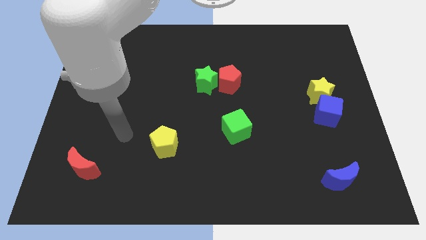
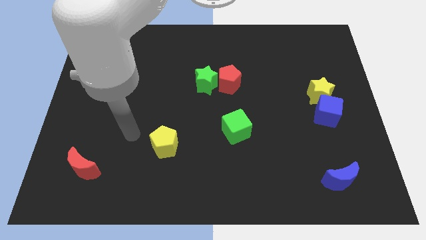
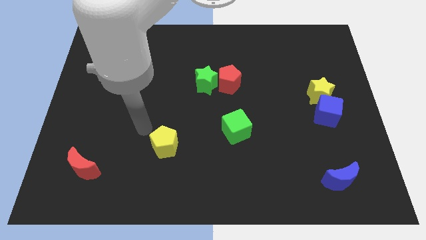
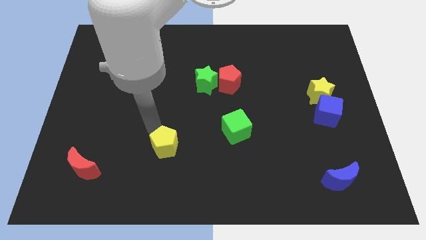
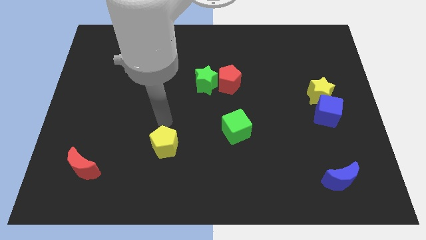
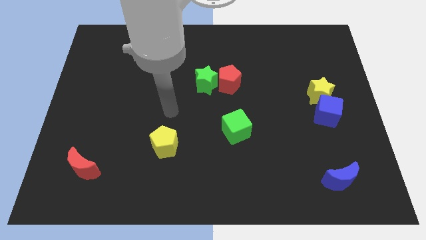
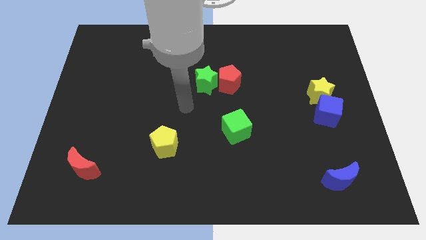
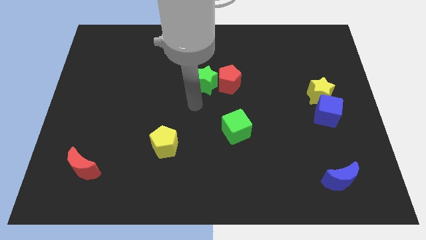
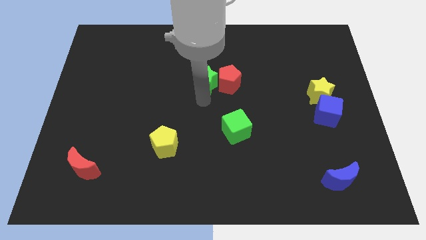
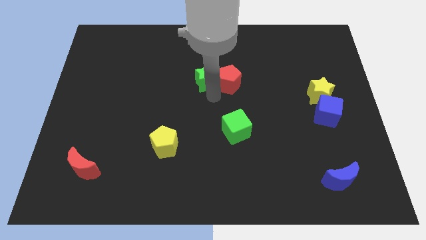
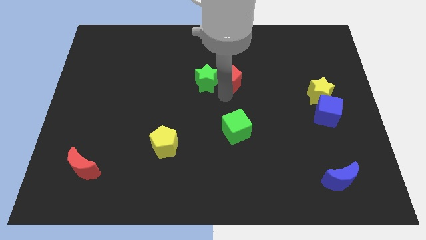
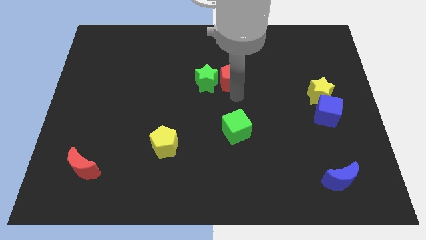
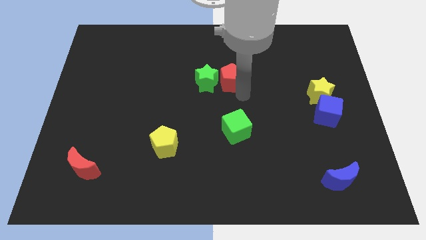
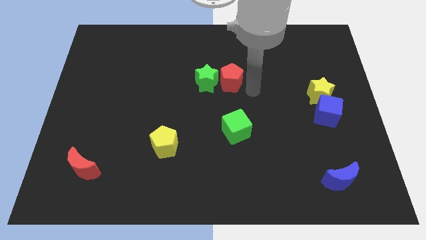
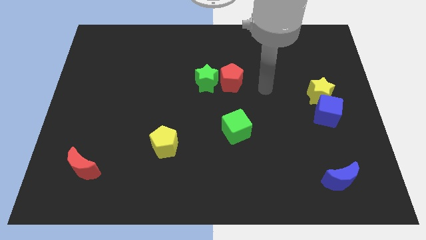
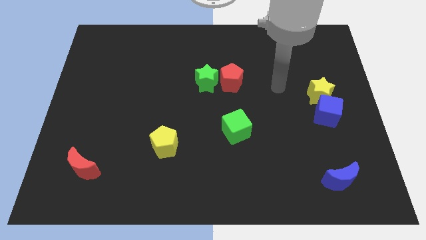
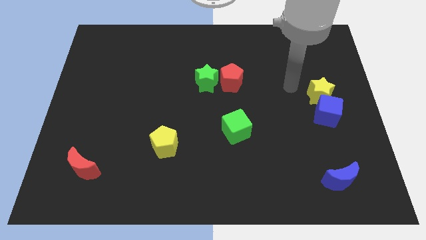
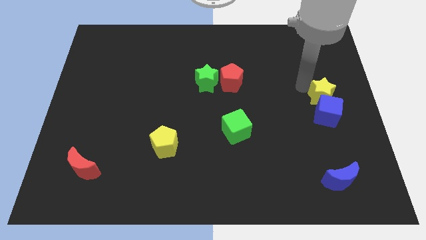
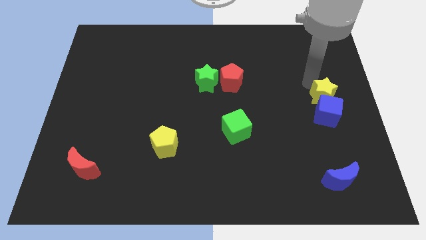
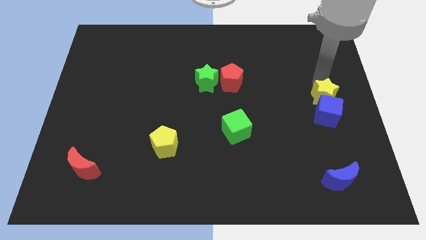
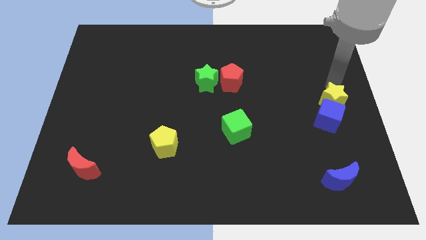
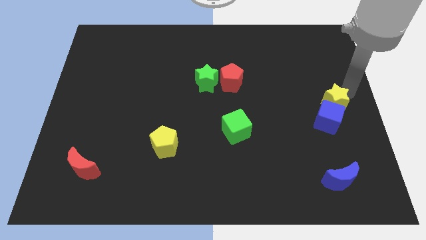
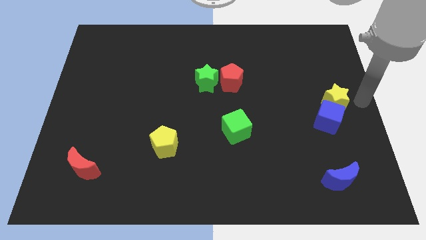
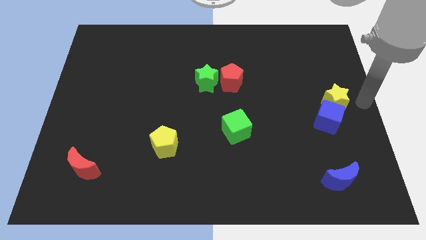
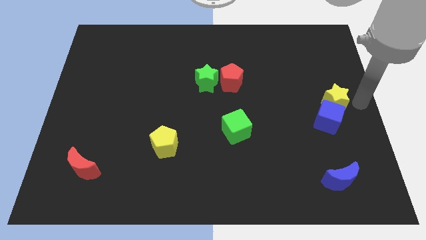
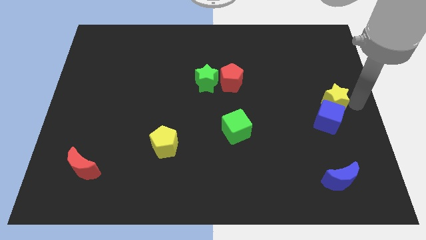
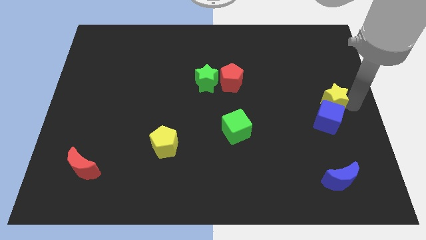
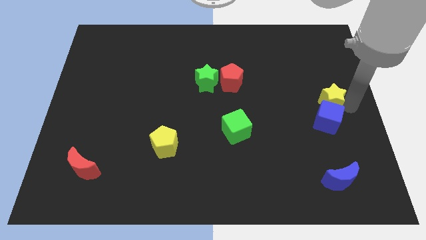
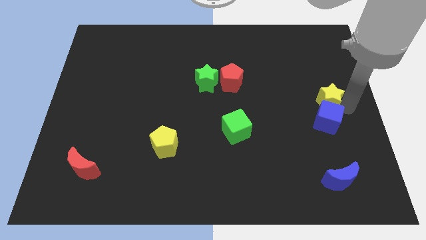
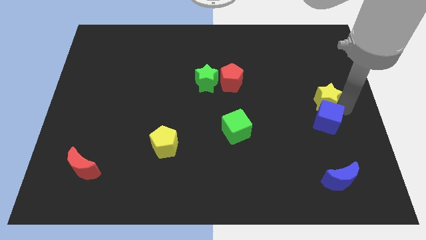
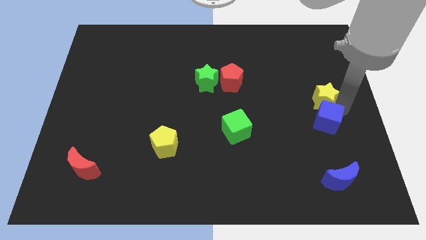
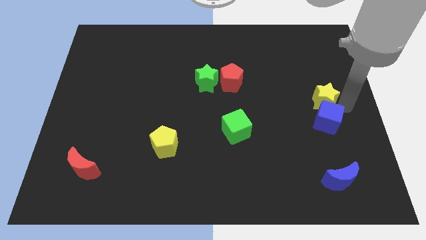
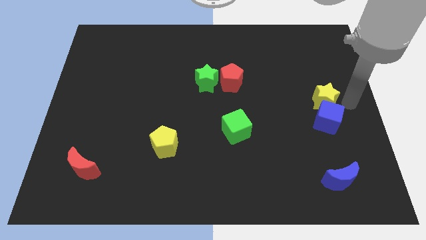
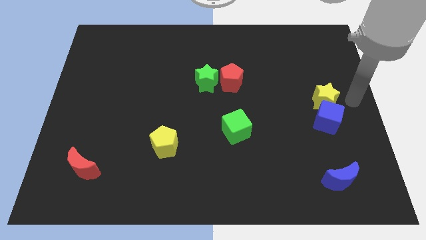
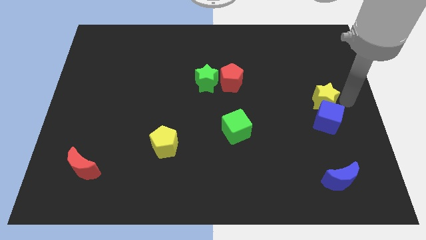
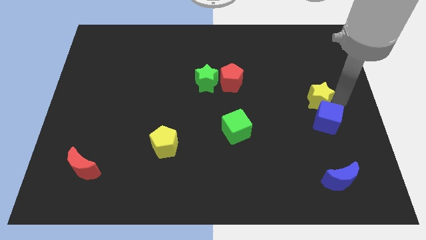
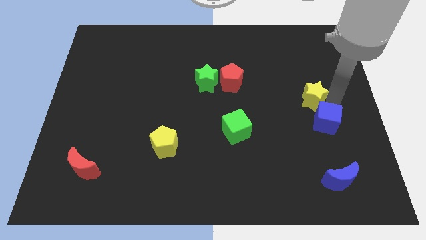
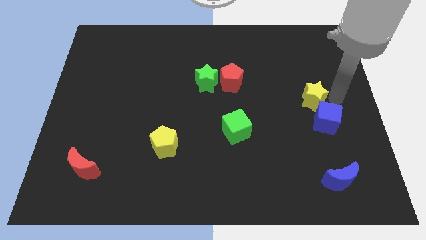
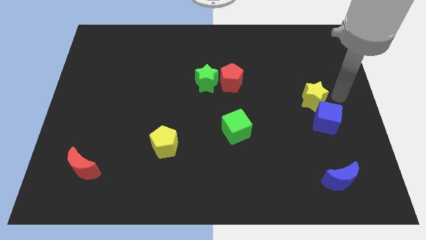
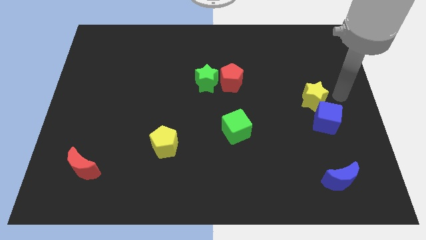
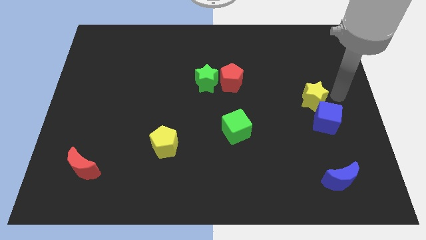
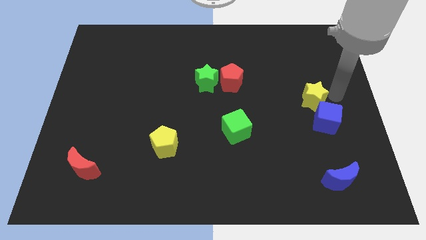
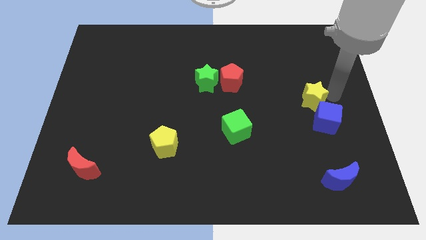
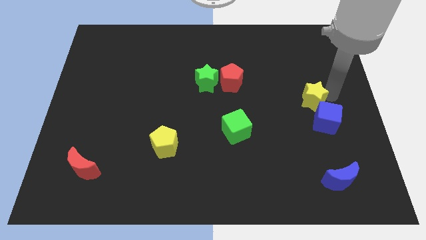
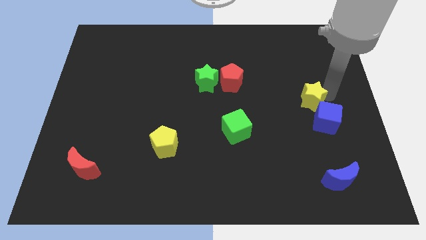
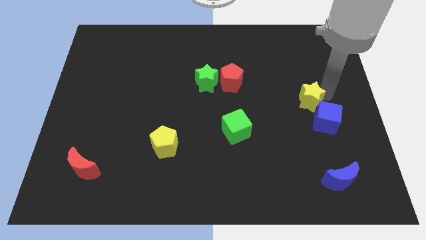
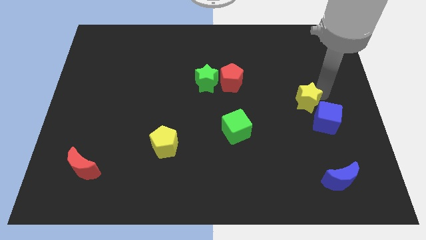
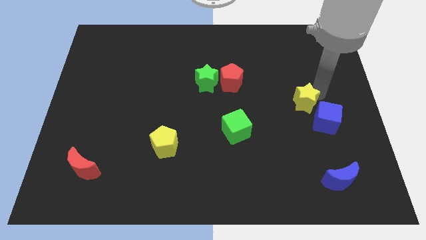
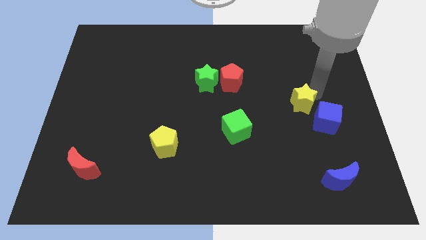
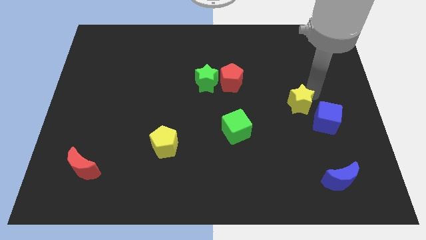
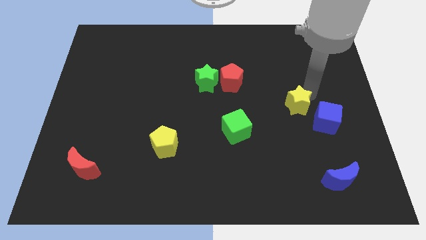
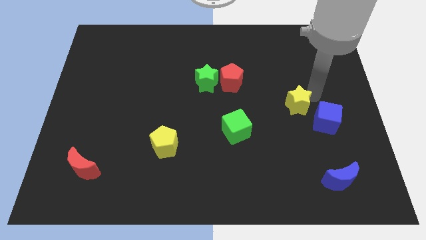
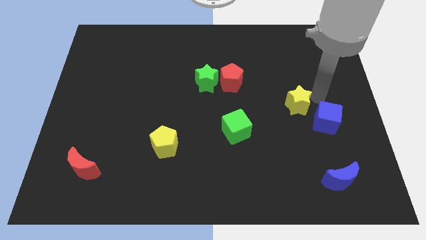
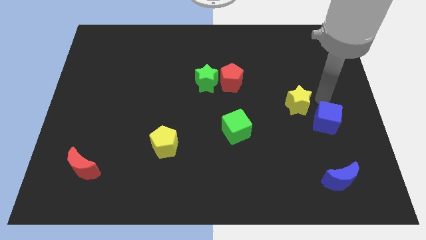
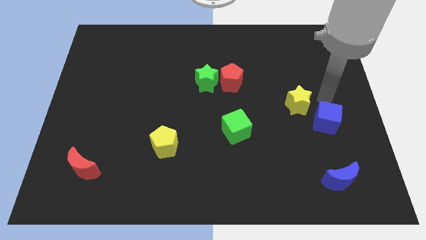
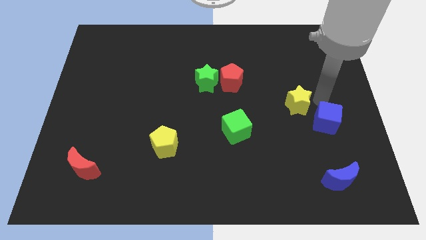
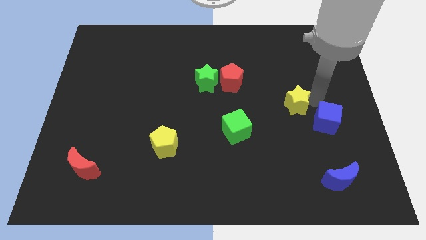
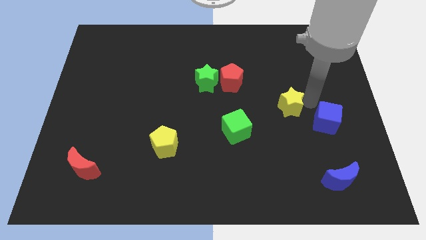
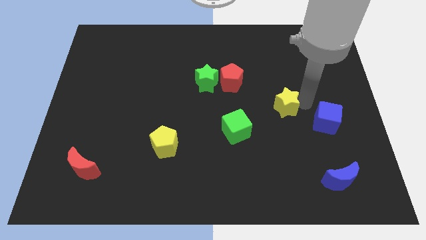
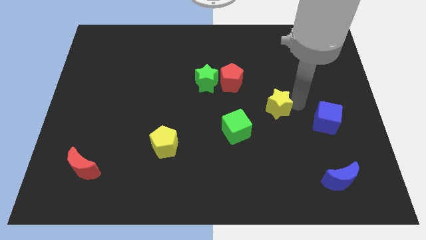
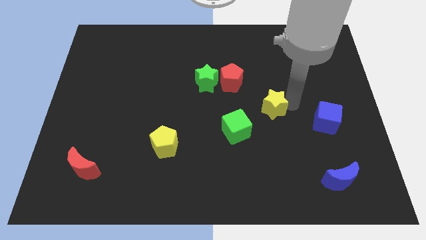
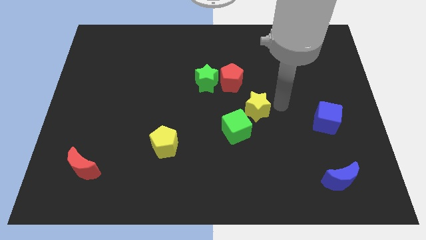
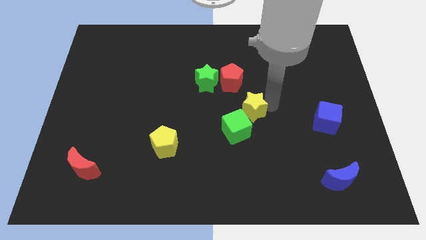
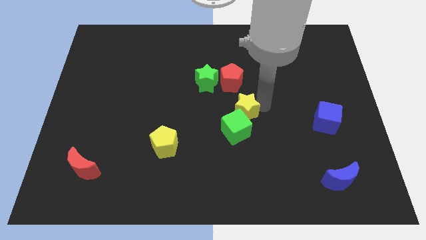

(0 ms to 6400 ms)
slide the yellow star to the green cube
